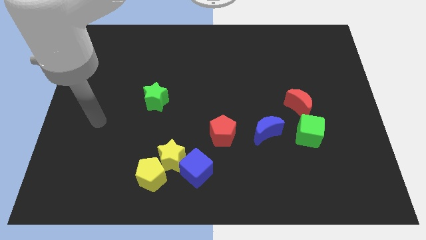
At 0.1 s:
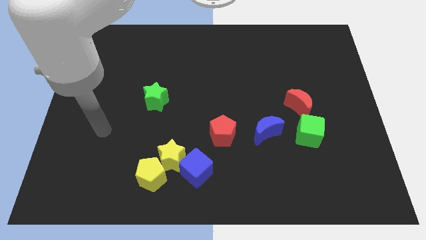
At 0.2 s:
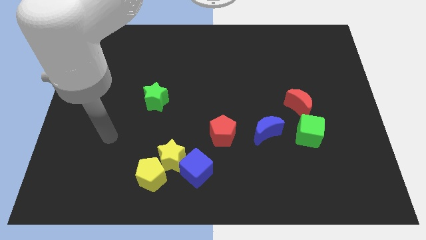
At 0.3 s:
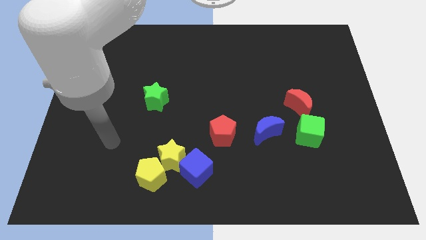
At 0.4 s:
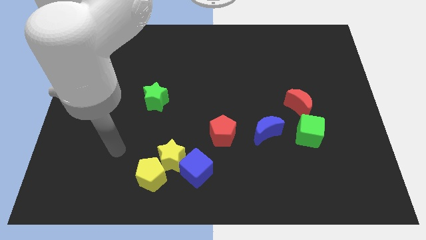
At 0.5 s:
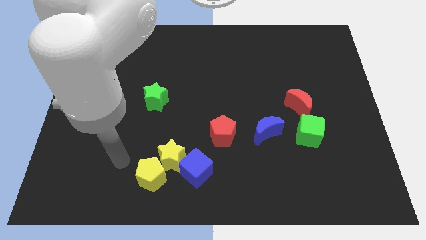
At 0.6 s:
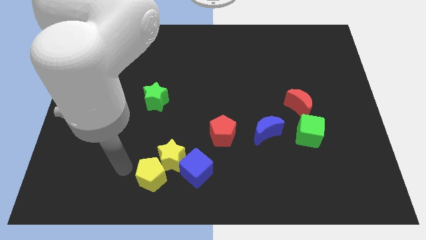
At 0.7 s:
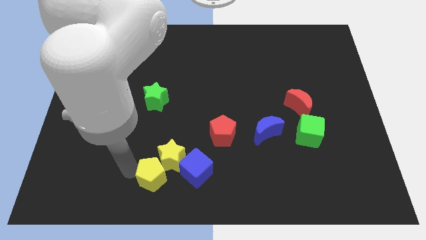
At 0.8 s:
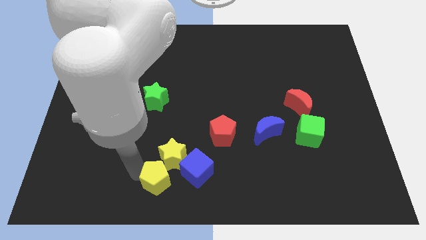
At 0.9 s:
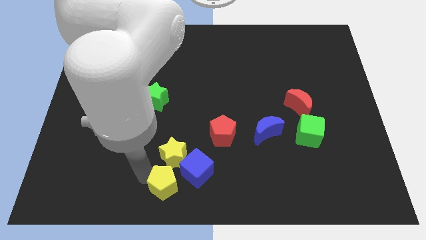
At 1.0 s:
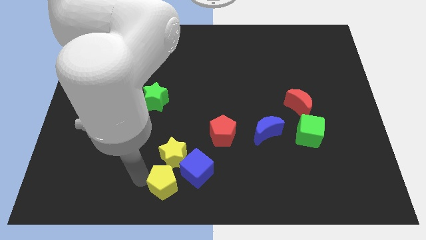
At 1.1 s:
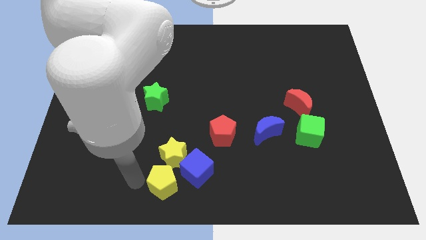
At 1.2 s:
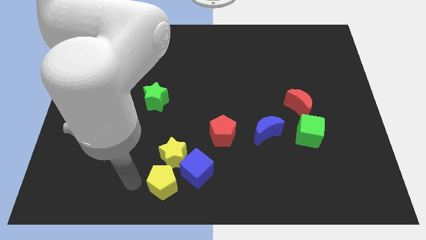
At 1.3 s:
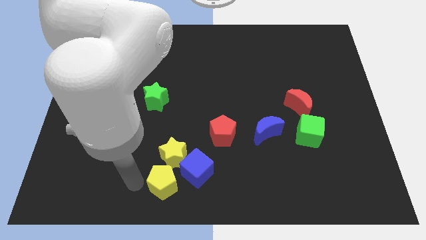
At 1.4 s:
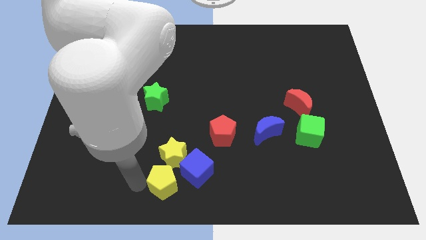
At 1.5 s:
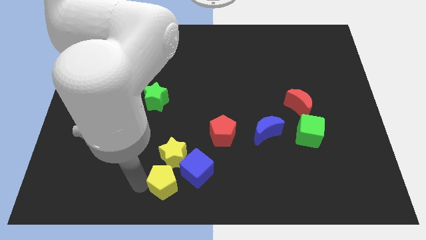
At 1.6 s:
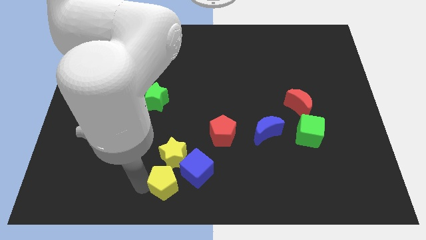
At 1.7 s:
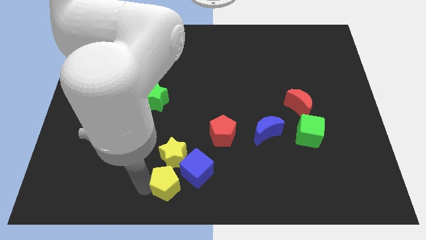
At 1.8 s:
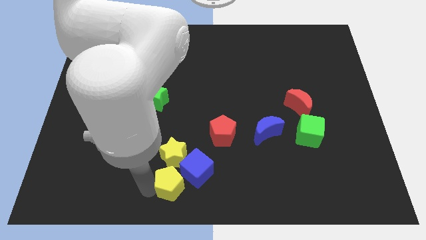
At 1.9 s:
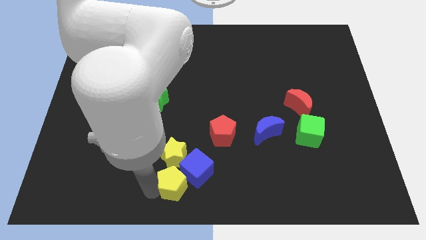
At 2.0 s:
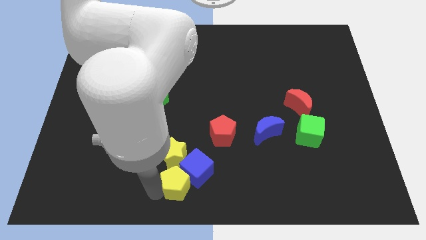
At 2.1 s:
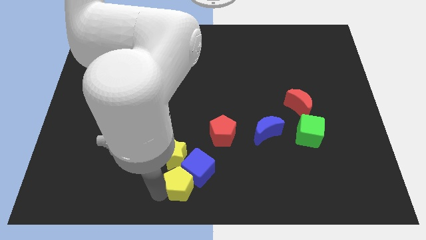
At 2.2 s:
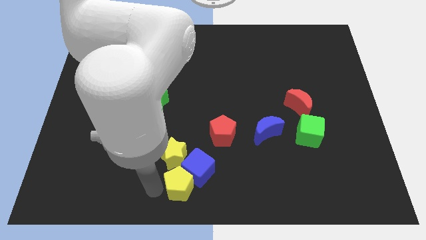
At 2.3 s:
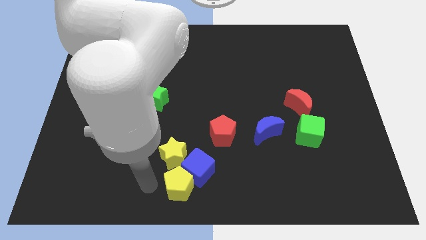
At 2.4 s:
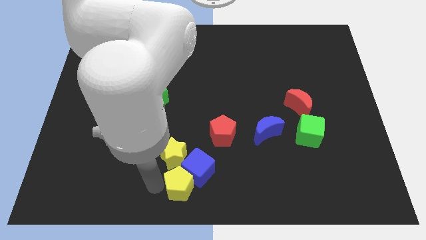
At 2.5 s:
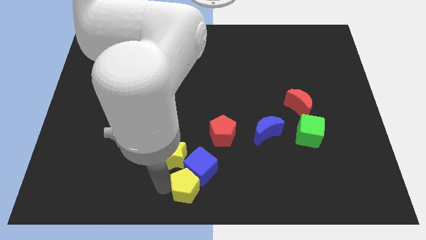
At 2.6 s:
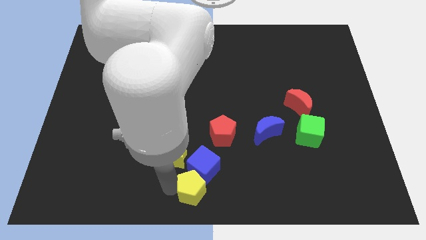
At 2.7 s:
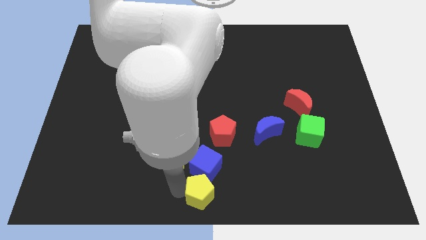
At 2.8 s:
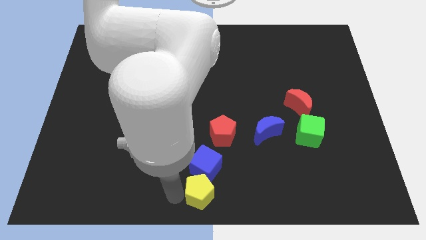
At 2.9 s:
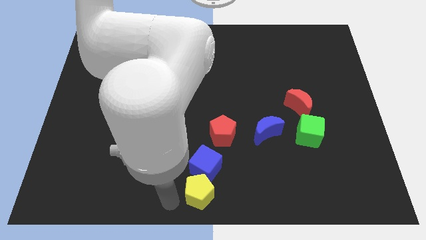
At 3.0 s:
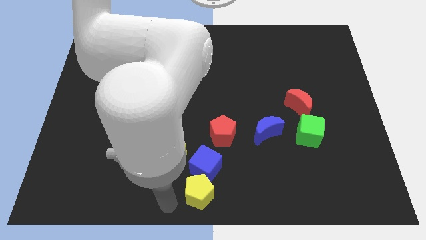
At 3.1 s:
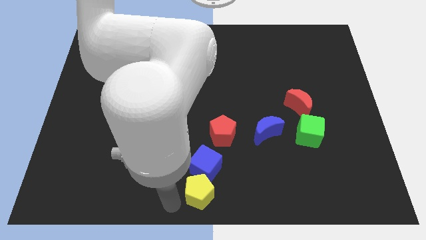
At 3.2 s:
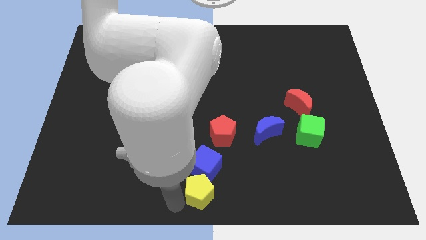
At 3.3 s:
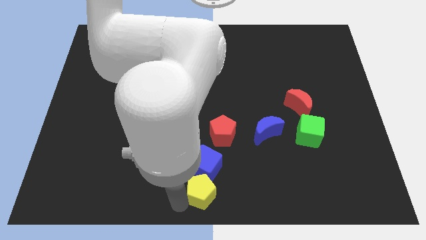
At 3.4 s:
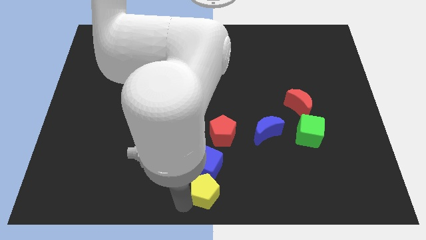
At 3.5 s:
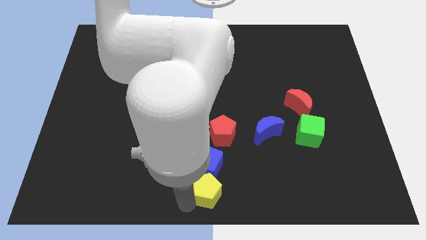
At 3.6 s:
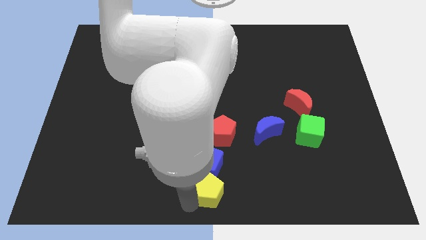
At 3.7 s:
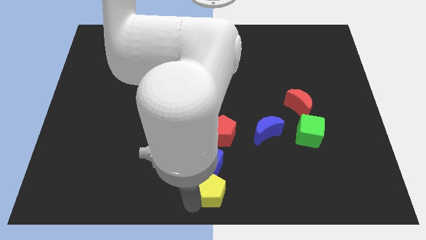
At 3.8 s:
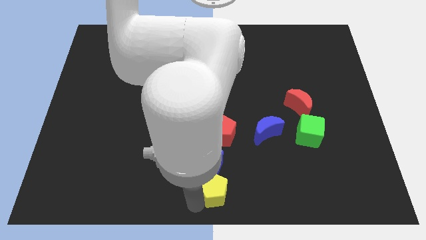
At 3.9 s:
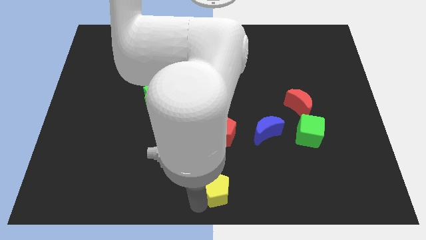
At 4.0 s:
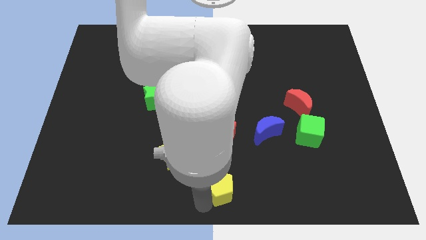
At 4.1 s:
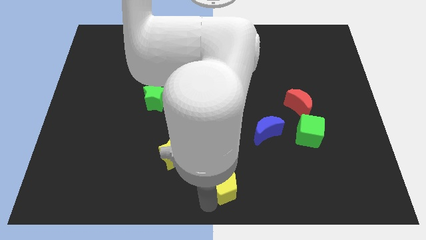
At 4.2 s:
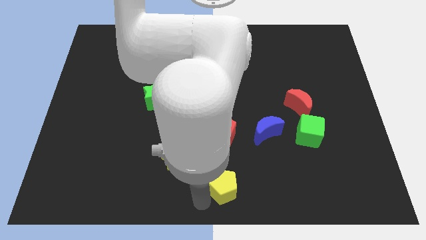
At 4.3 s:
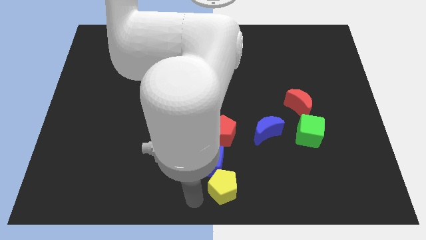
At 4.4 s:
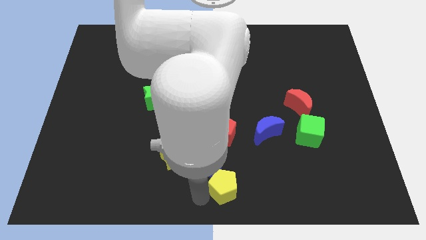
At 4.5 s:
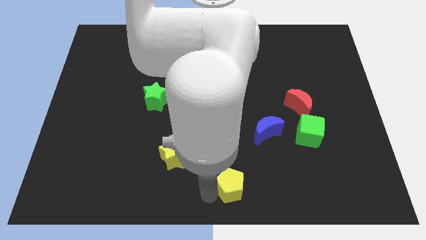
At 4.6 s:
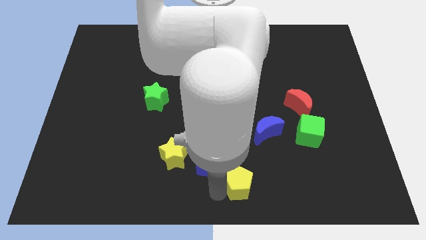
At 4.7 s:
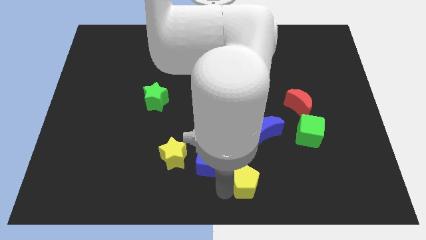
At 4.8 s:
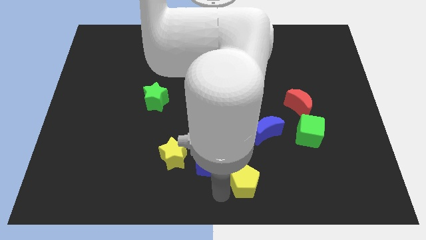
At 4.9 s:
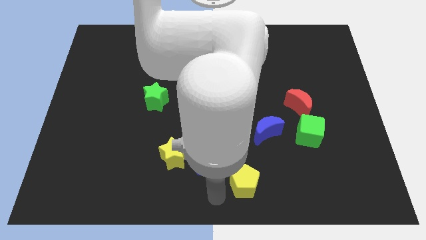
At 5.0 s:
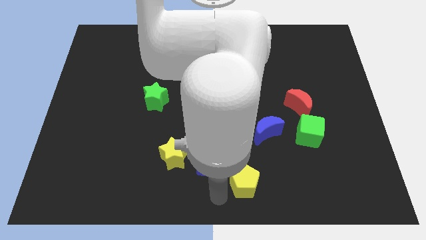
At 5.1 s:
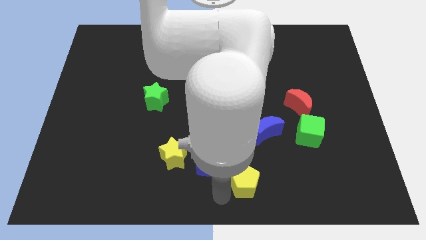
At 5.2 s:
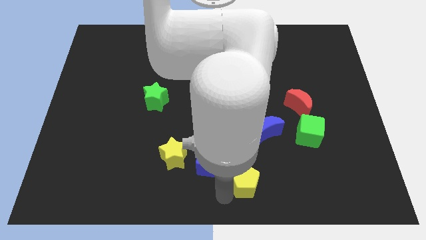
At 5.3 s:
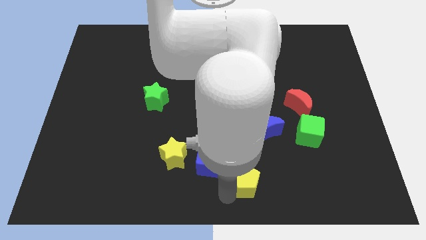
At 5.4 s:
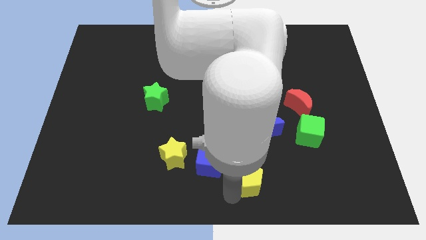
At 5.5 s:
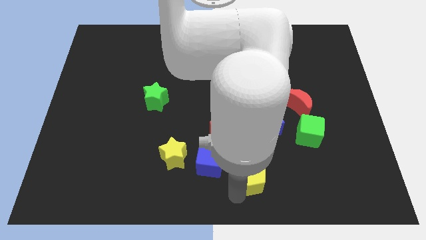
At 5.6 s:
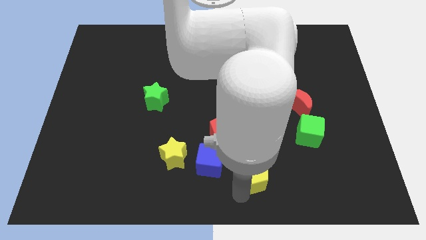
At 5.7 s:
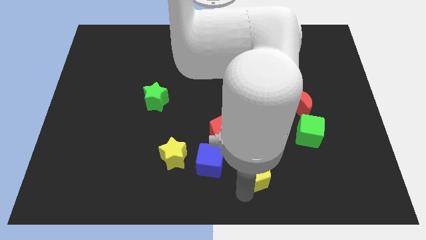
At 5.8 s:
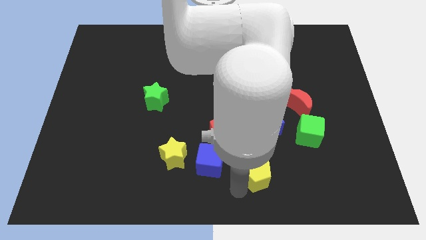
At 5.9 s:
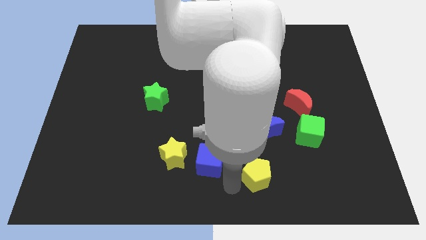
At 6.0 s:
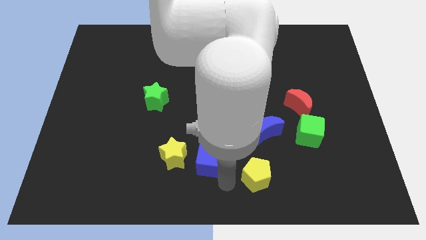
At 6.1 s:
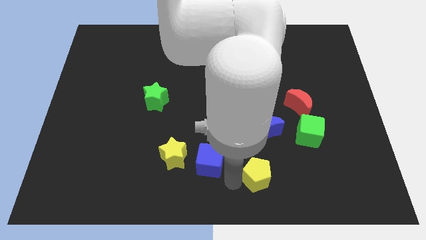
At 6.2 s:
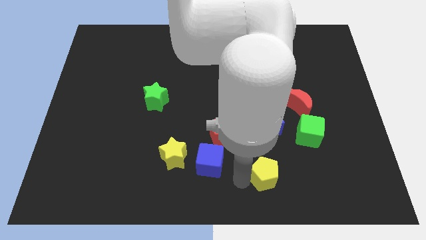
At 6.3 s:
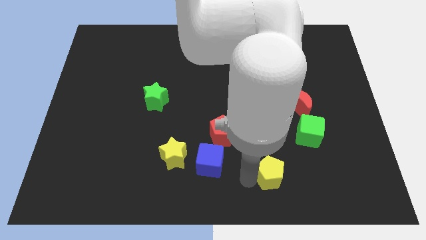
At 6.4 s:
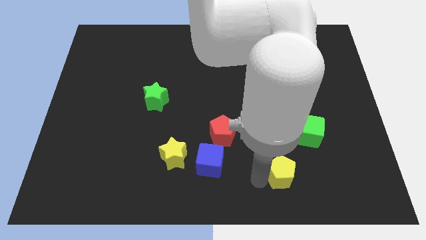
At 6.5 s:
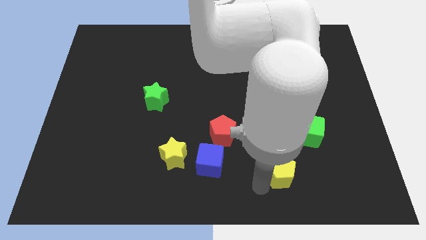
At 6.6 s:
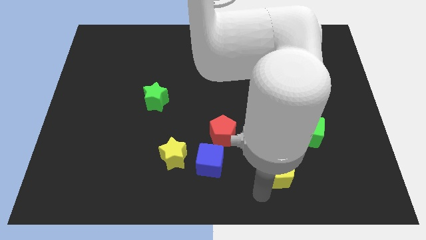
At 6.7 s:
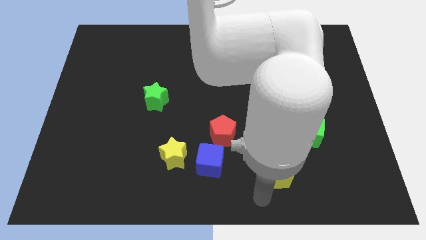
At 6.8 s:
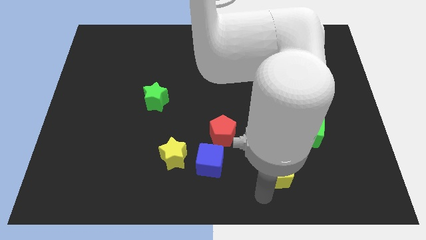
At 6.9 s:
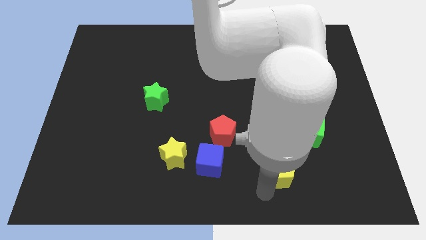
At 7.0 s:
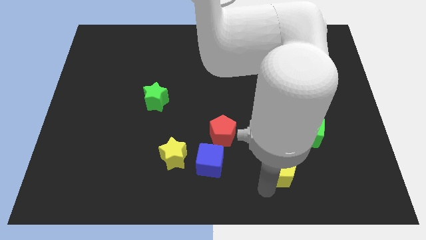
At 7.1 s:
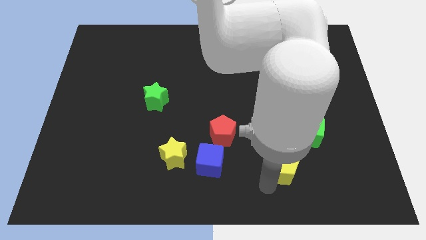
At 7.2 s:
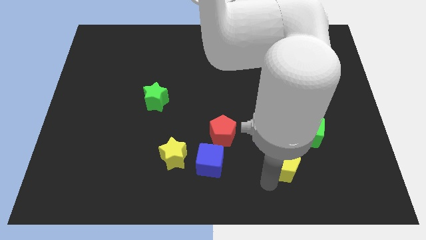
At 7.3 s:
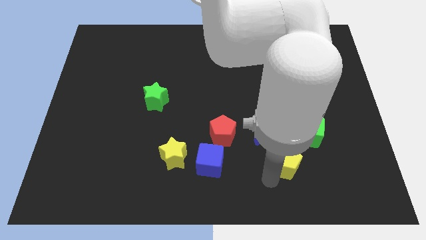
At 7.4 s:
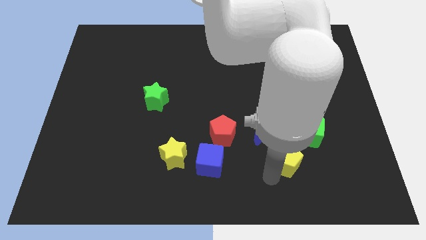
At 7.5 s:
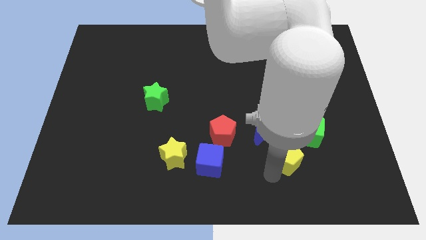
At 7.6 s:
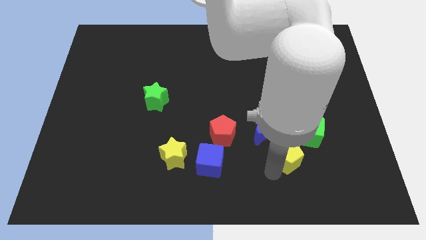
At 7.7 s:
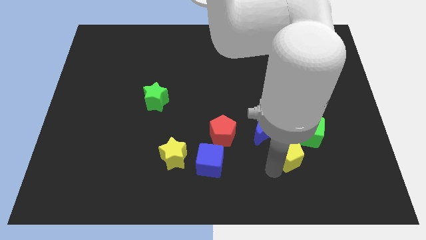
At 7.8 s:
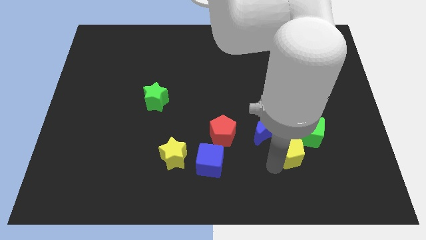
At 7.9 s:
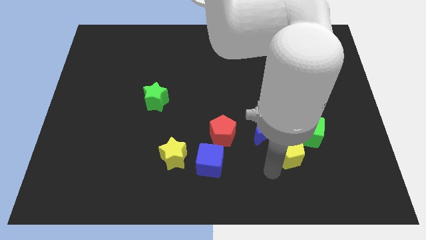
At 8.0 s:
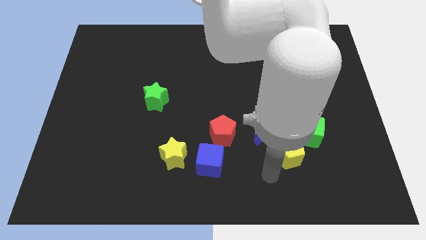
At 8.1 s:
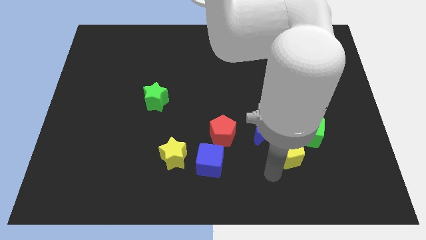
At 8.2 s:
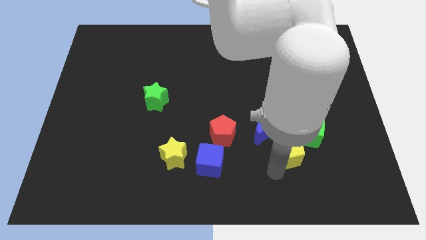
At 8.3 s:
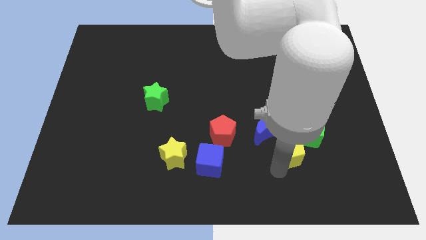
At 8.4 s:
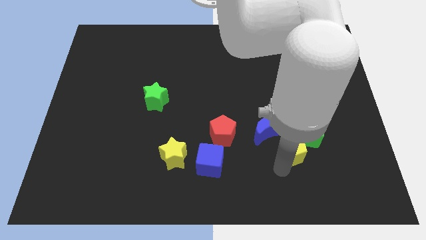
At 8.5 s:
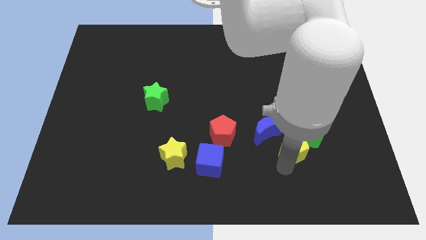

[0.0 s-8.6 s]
put the yellow pentagon next to the green cube
